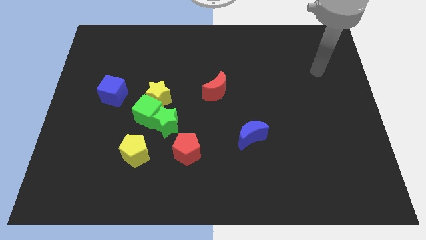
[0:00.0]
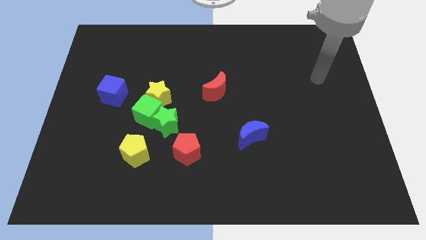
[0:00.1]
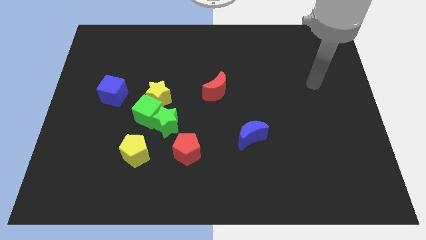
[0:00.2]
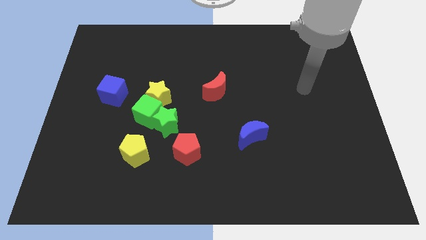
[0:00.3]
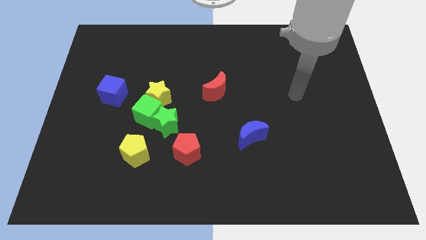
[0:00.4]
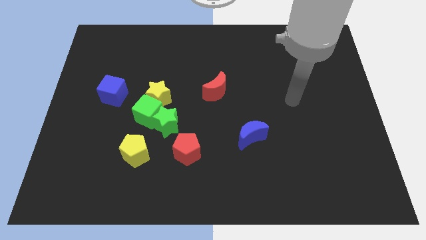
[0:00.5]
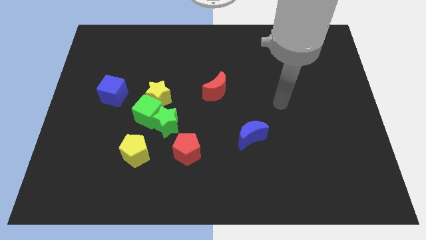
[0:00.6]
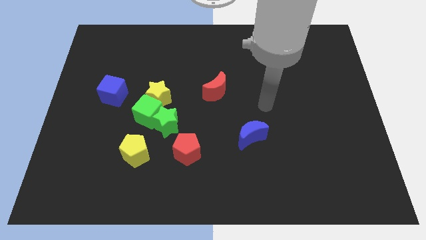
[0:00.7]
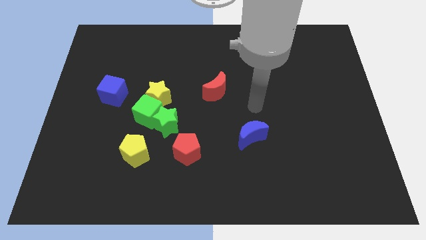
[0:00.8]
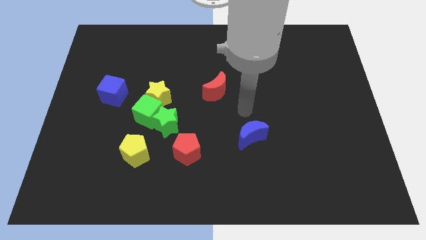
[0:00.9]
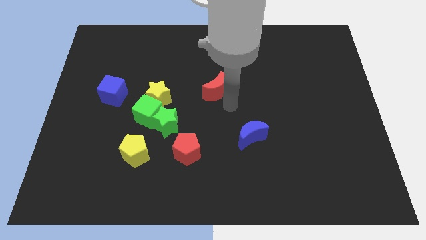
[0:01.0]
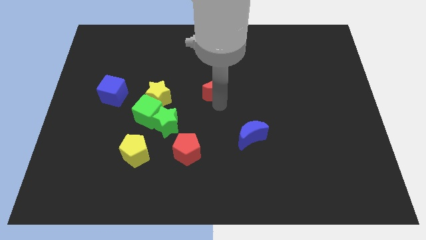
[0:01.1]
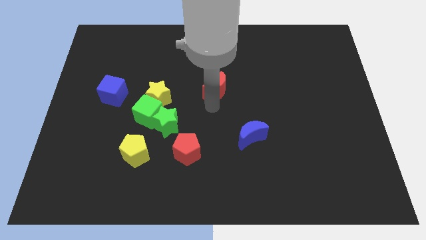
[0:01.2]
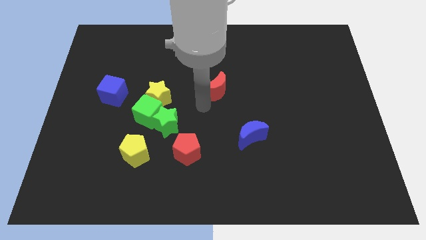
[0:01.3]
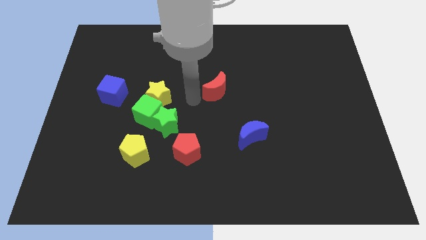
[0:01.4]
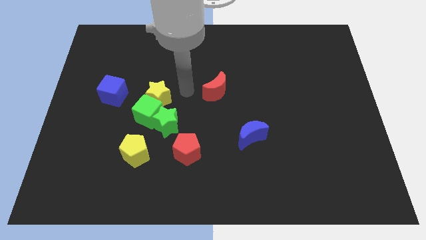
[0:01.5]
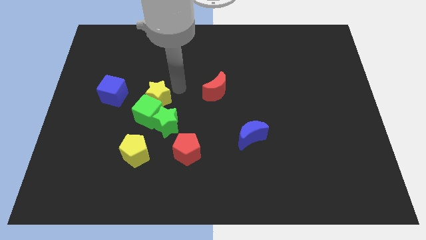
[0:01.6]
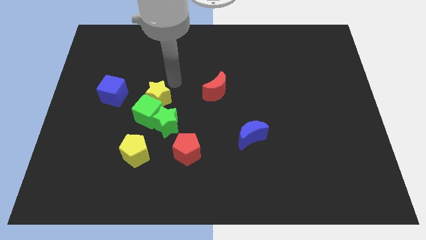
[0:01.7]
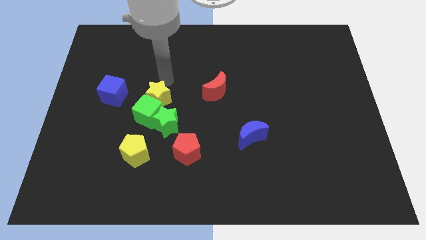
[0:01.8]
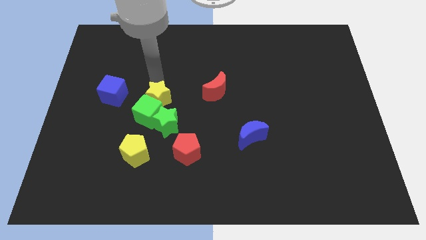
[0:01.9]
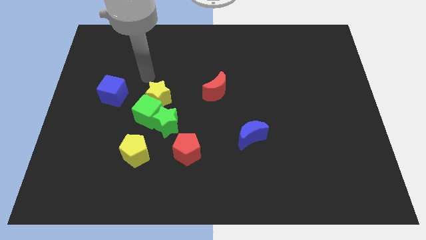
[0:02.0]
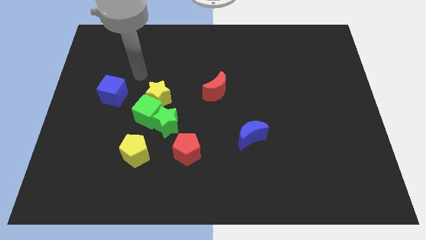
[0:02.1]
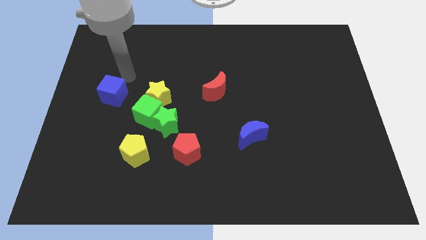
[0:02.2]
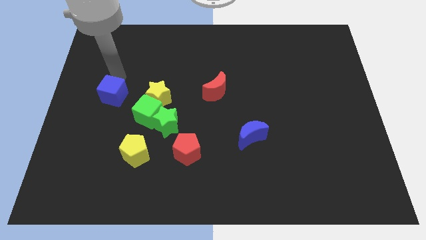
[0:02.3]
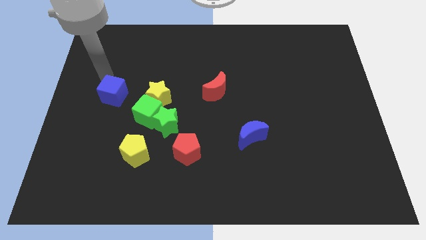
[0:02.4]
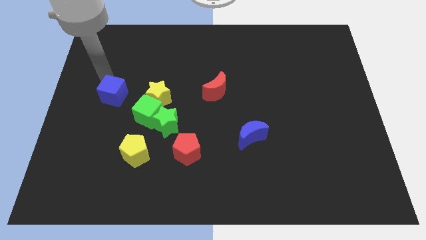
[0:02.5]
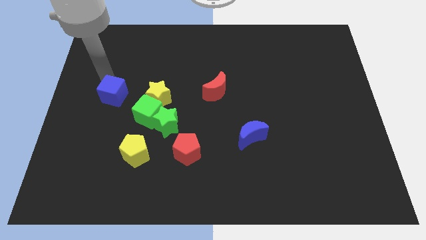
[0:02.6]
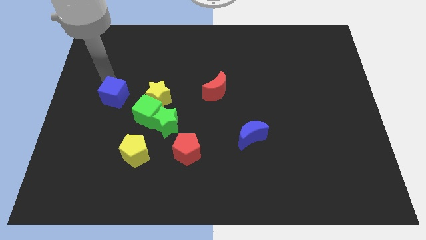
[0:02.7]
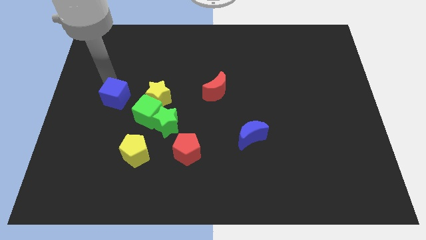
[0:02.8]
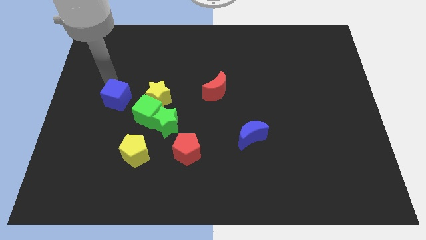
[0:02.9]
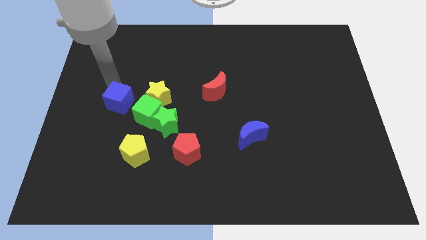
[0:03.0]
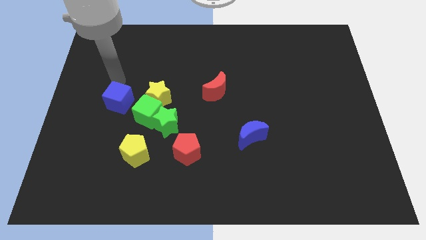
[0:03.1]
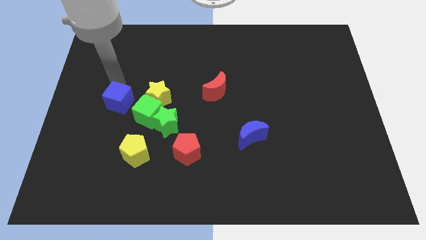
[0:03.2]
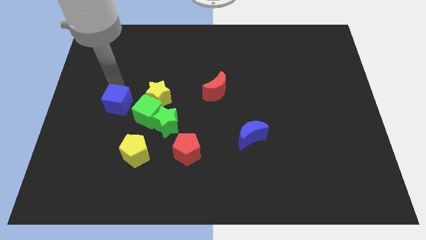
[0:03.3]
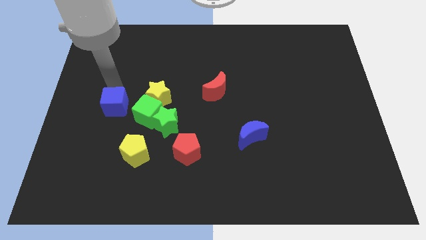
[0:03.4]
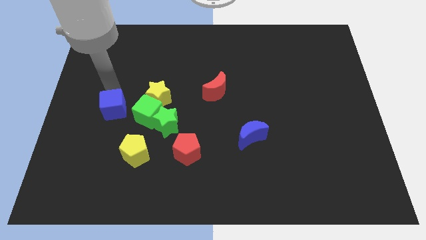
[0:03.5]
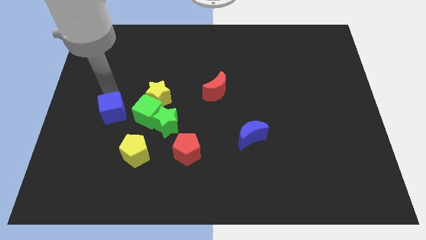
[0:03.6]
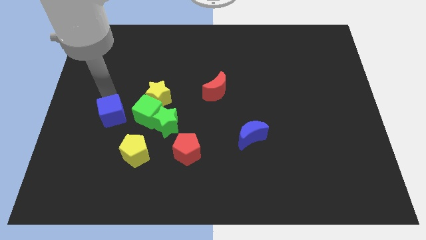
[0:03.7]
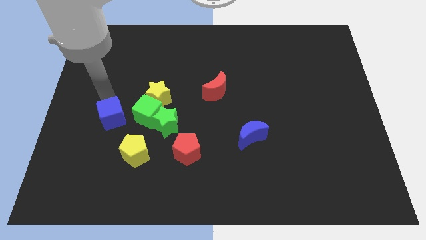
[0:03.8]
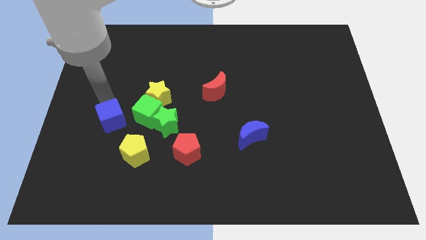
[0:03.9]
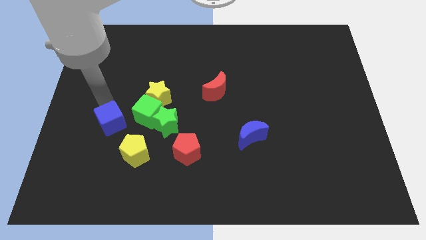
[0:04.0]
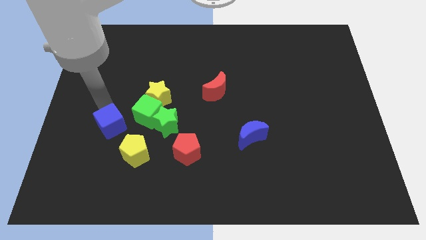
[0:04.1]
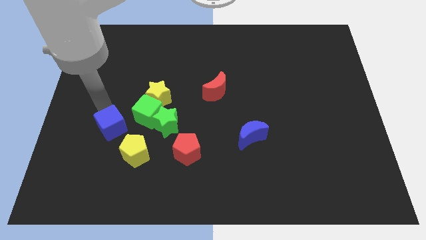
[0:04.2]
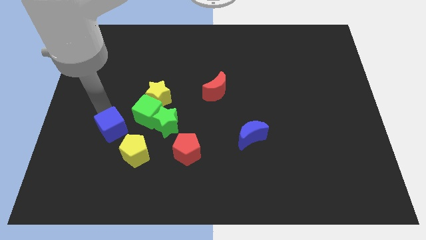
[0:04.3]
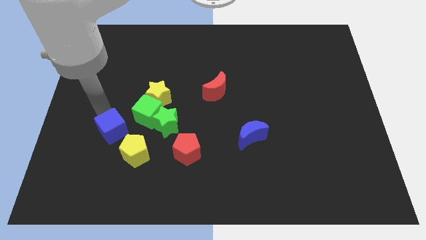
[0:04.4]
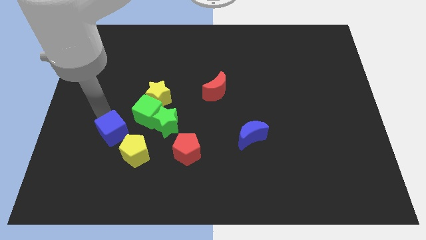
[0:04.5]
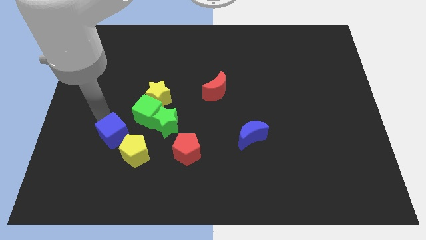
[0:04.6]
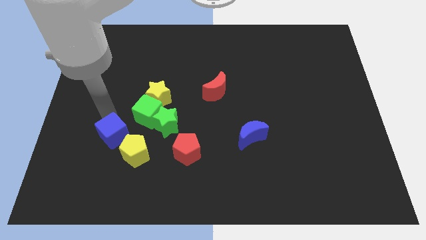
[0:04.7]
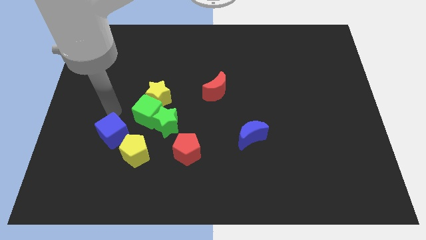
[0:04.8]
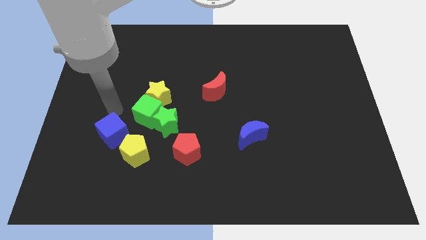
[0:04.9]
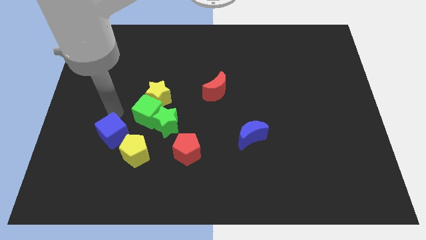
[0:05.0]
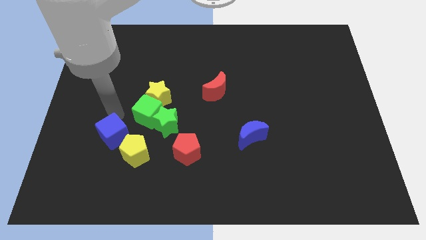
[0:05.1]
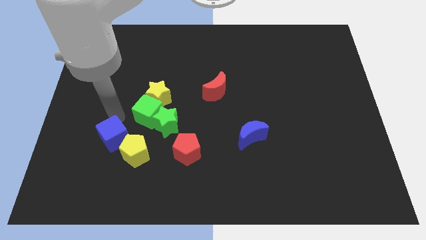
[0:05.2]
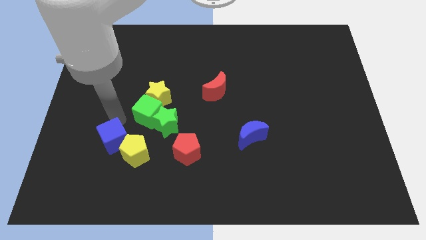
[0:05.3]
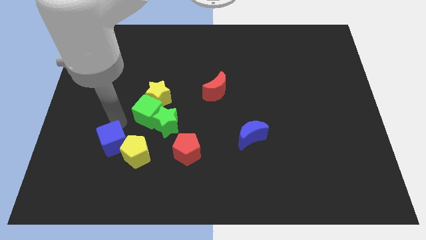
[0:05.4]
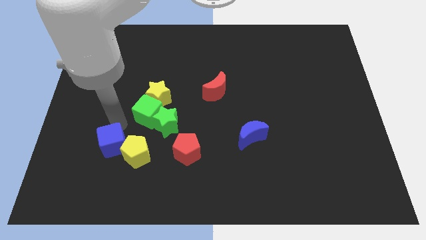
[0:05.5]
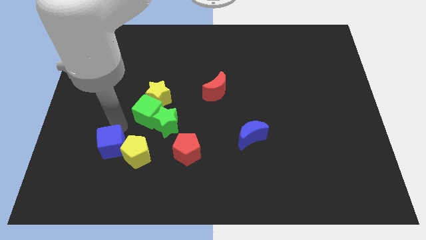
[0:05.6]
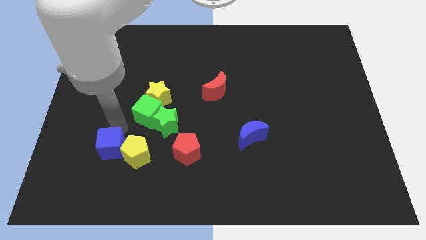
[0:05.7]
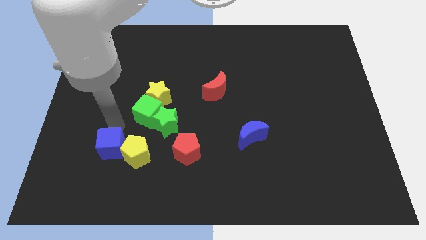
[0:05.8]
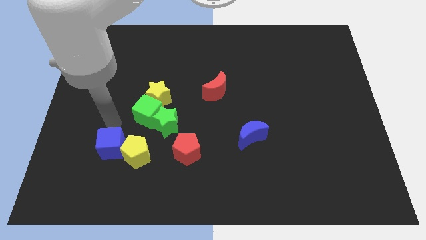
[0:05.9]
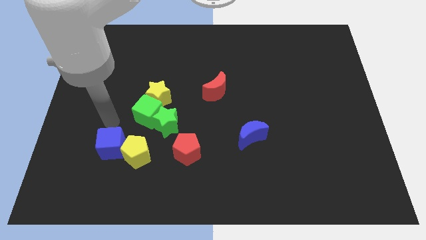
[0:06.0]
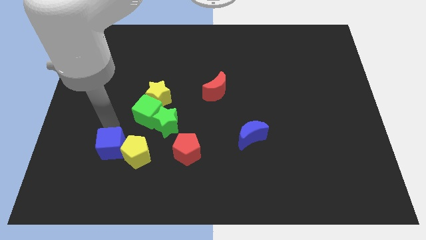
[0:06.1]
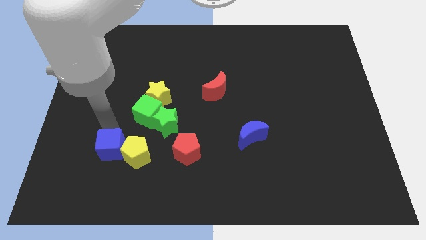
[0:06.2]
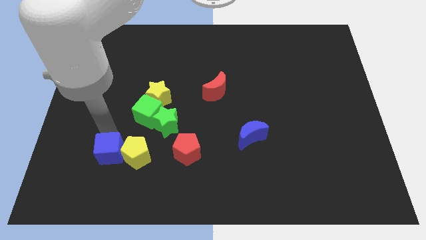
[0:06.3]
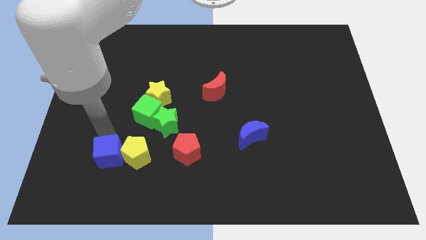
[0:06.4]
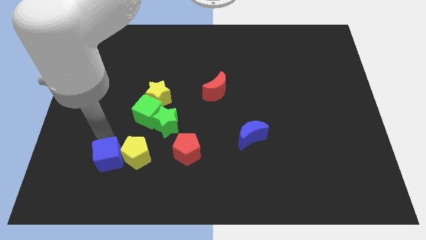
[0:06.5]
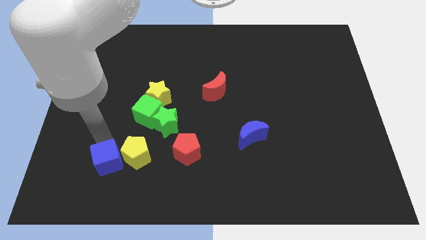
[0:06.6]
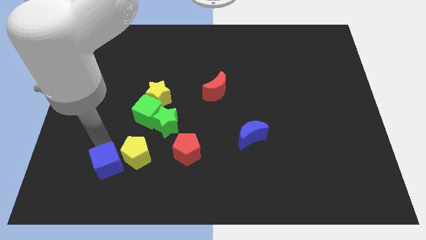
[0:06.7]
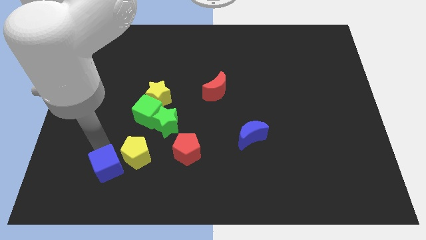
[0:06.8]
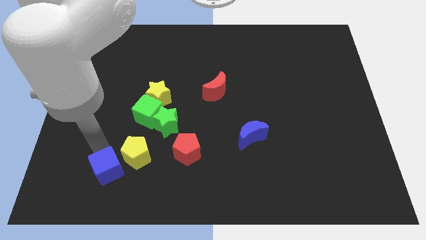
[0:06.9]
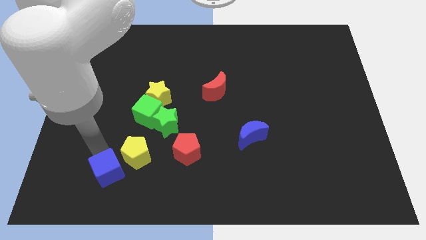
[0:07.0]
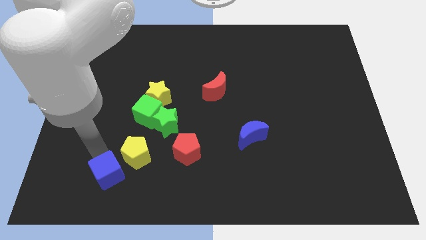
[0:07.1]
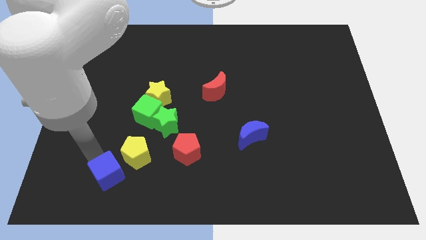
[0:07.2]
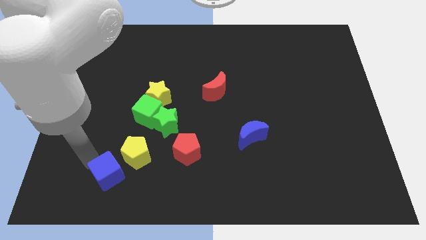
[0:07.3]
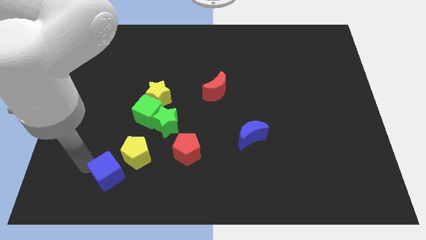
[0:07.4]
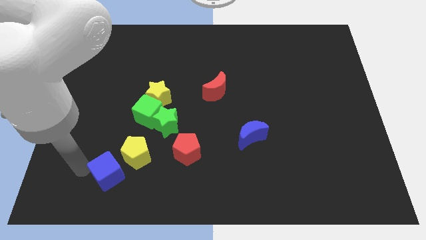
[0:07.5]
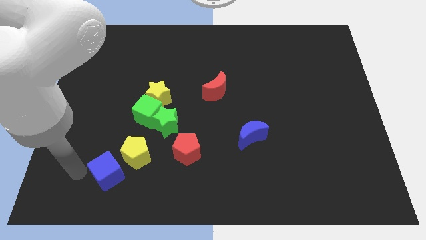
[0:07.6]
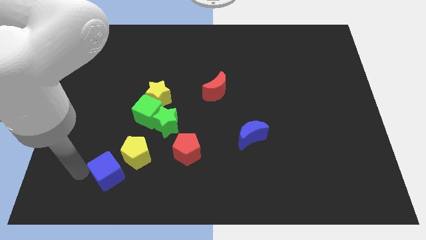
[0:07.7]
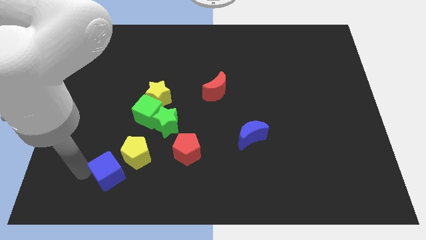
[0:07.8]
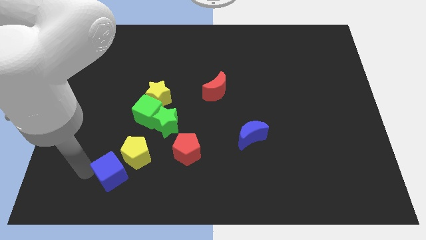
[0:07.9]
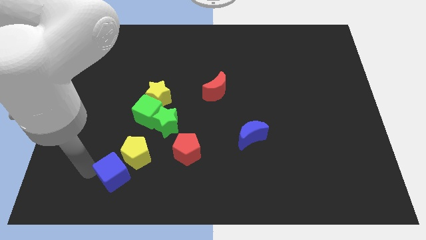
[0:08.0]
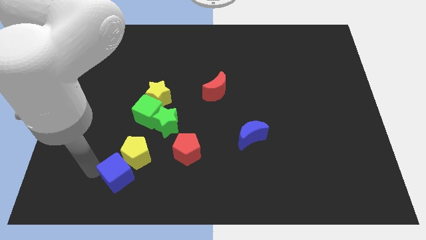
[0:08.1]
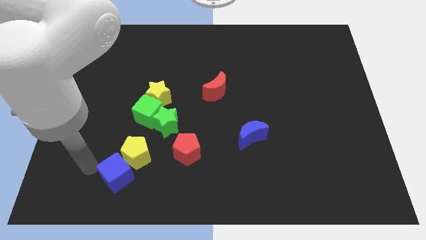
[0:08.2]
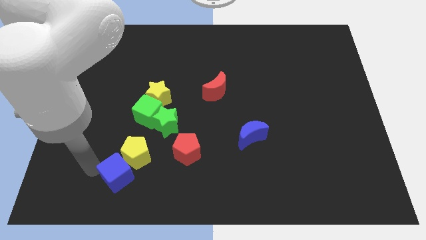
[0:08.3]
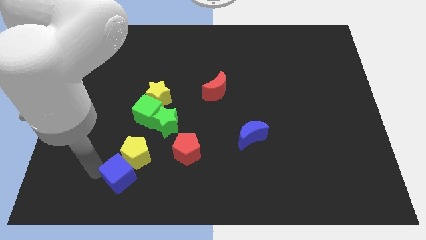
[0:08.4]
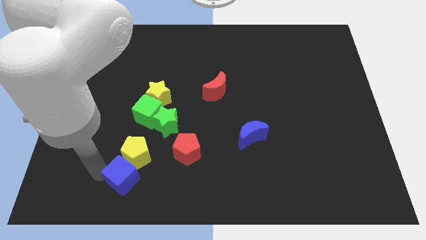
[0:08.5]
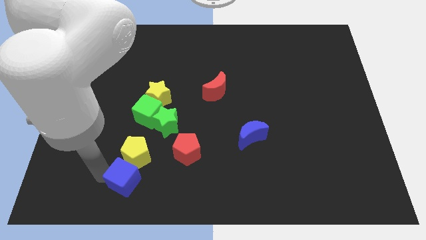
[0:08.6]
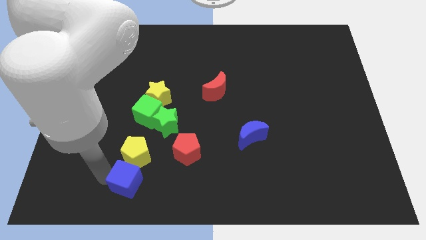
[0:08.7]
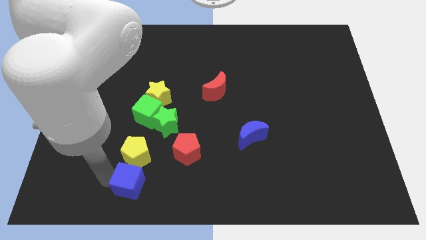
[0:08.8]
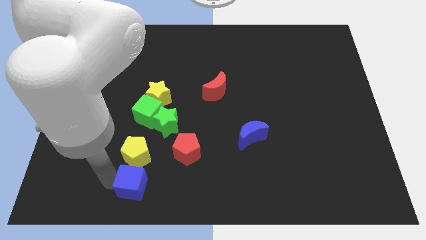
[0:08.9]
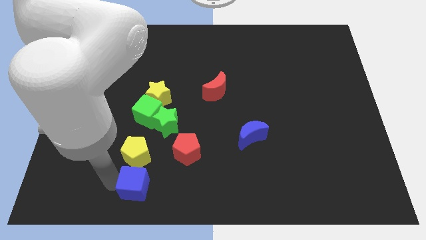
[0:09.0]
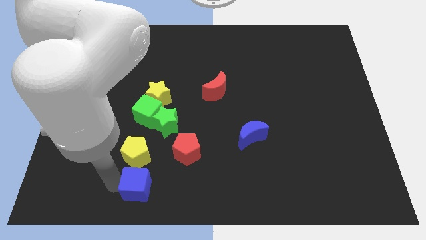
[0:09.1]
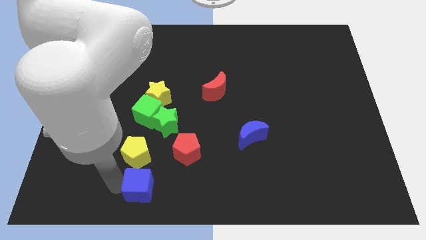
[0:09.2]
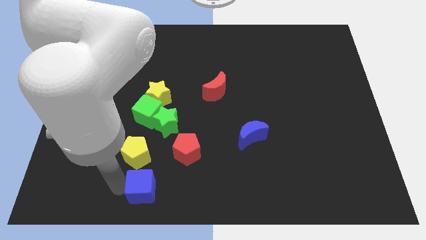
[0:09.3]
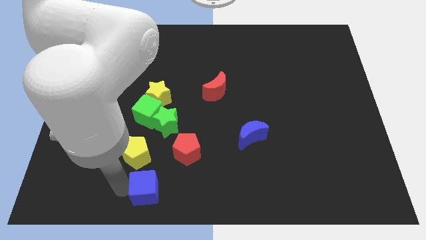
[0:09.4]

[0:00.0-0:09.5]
push the blue cube diagonally down and right
